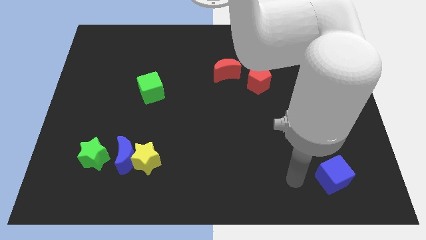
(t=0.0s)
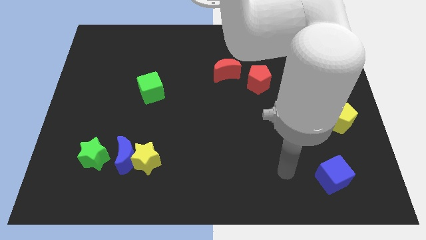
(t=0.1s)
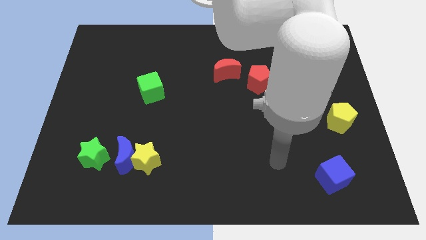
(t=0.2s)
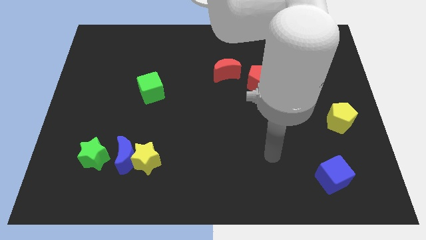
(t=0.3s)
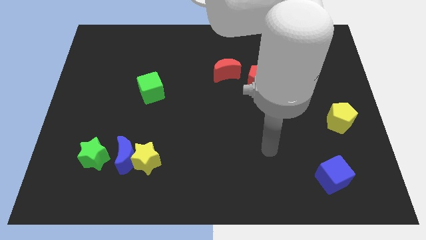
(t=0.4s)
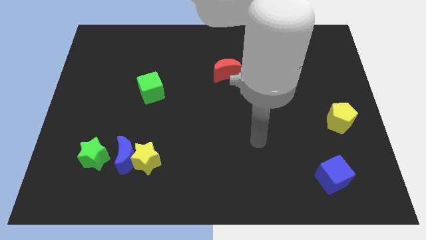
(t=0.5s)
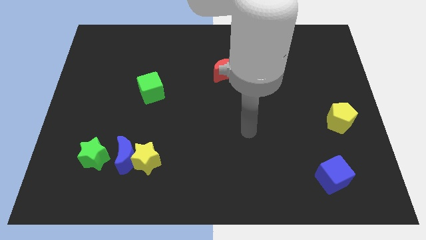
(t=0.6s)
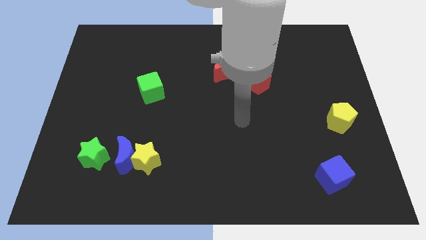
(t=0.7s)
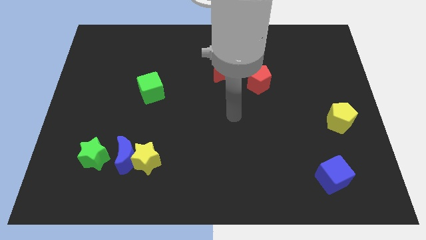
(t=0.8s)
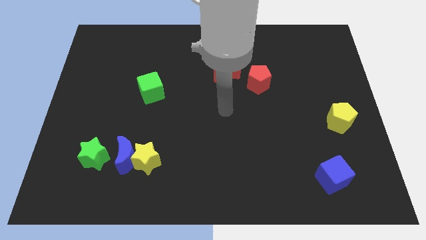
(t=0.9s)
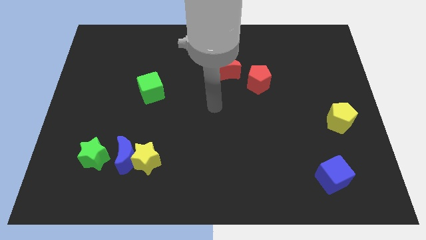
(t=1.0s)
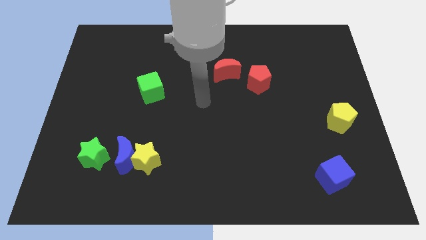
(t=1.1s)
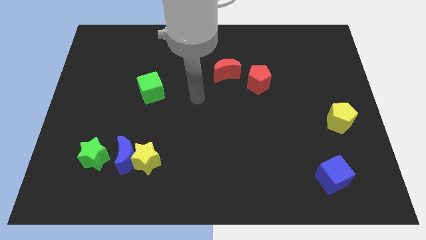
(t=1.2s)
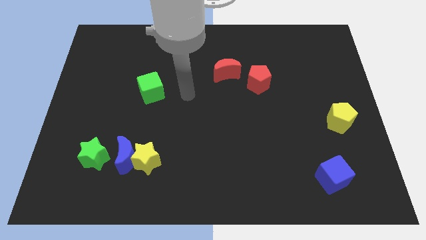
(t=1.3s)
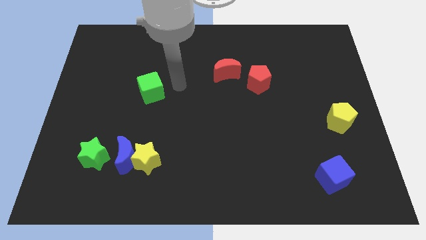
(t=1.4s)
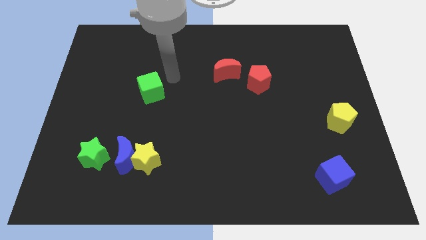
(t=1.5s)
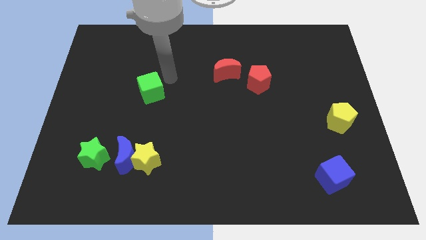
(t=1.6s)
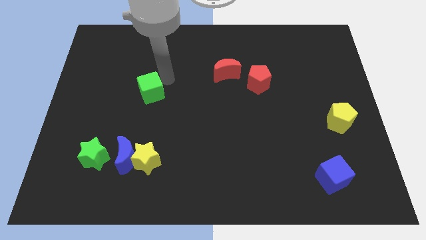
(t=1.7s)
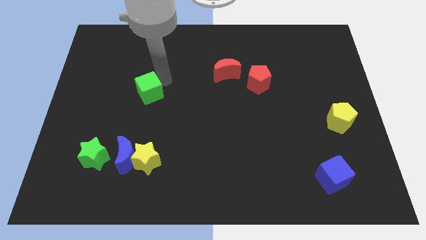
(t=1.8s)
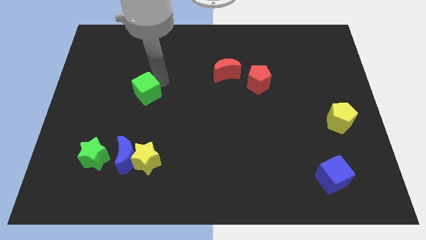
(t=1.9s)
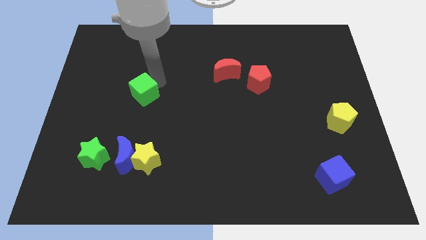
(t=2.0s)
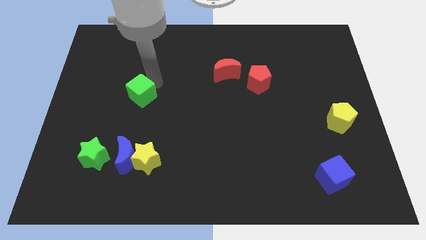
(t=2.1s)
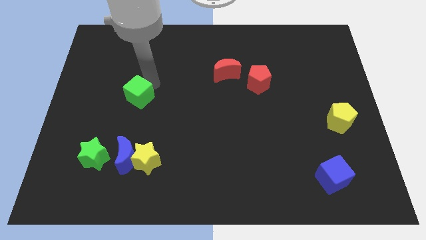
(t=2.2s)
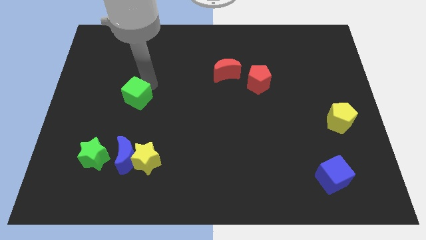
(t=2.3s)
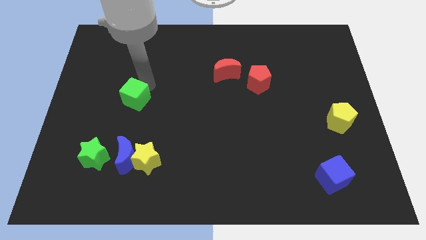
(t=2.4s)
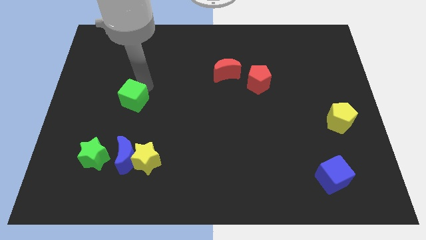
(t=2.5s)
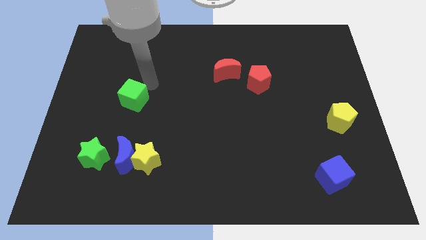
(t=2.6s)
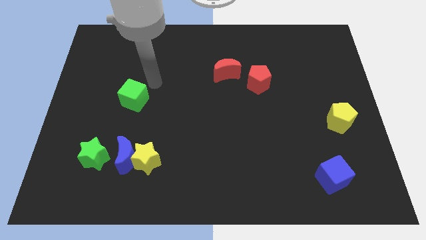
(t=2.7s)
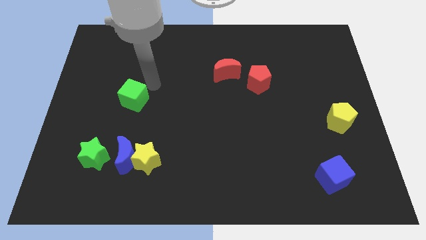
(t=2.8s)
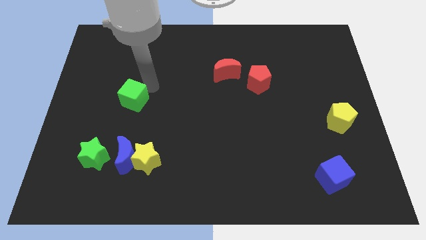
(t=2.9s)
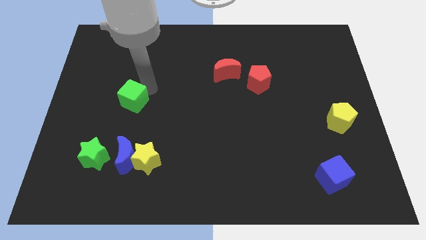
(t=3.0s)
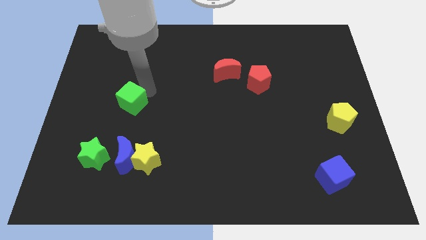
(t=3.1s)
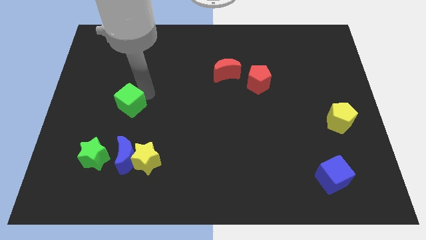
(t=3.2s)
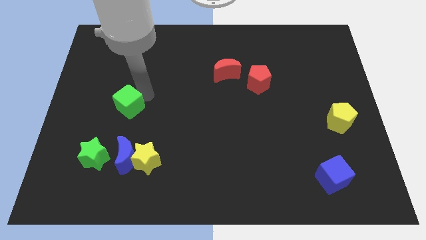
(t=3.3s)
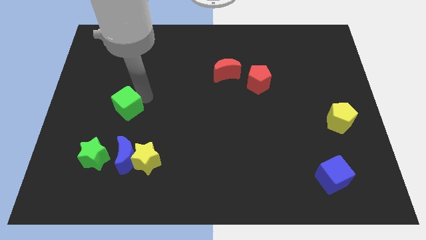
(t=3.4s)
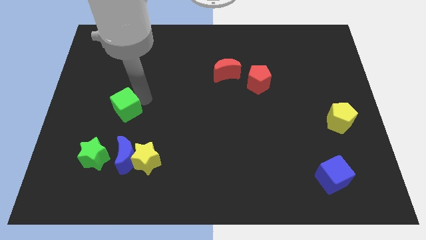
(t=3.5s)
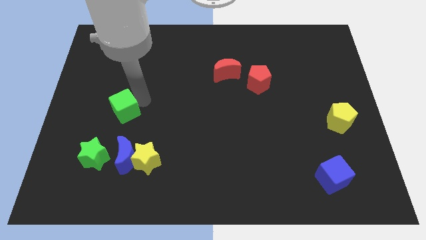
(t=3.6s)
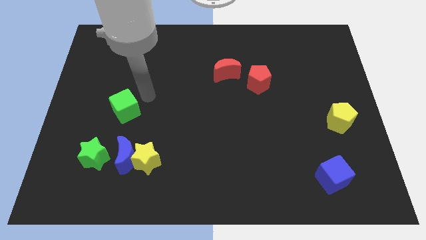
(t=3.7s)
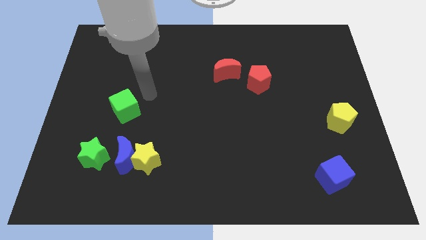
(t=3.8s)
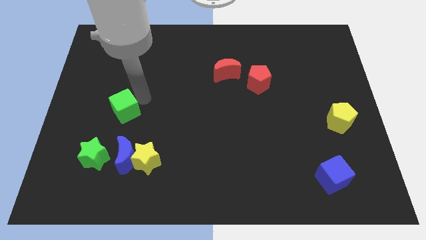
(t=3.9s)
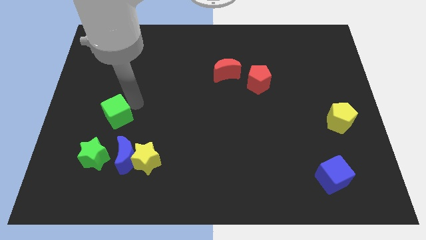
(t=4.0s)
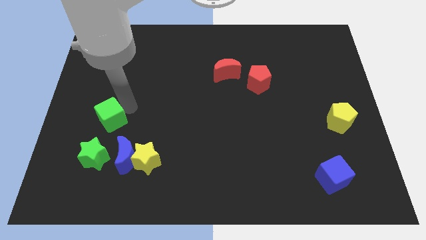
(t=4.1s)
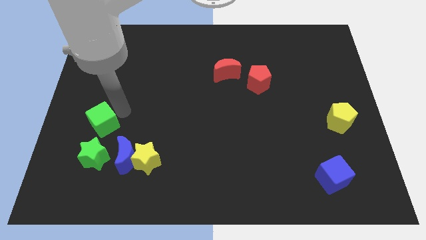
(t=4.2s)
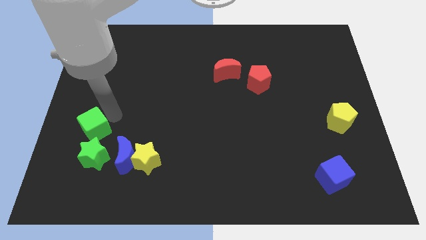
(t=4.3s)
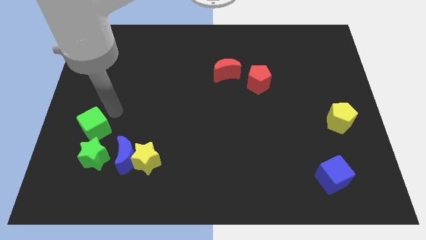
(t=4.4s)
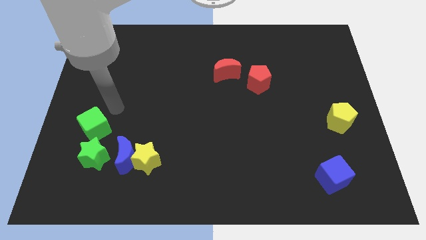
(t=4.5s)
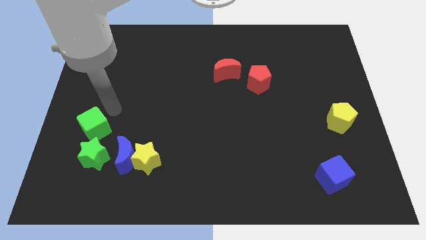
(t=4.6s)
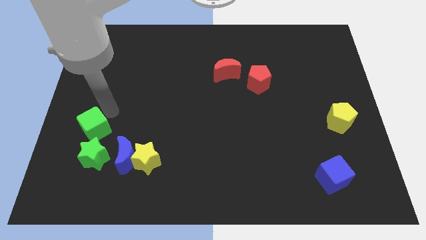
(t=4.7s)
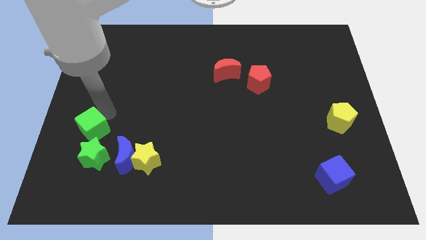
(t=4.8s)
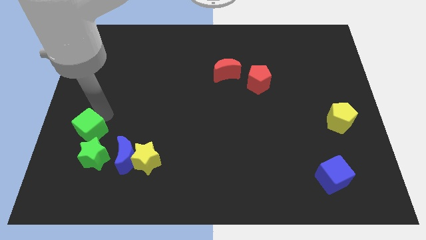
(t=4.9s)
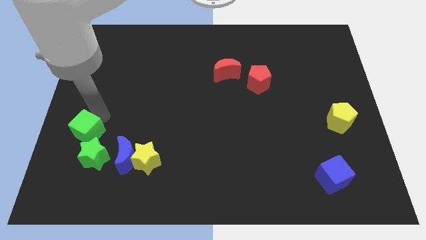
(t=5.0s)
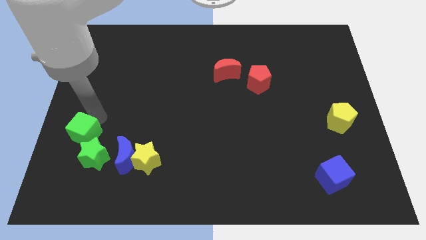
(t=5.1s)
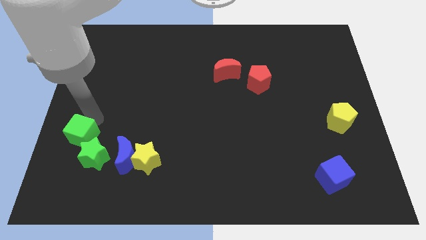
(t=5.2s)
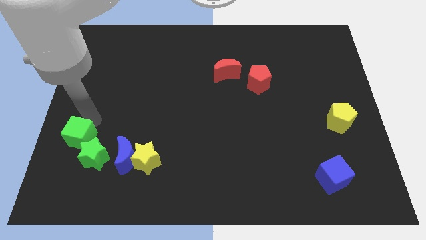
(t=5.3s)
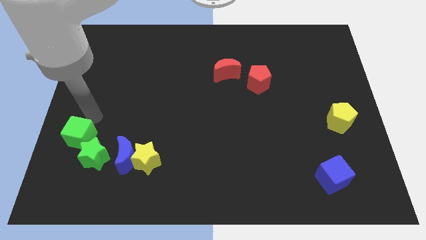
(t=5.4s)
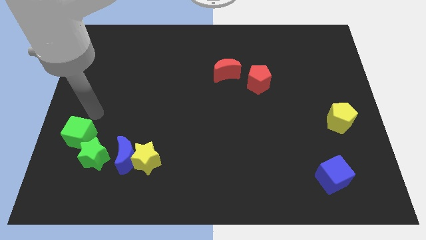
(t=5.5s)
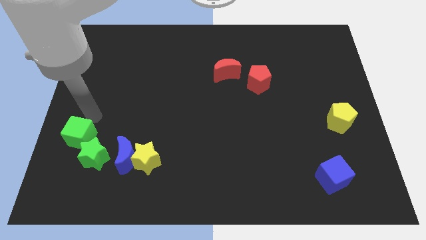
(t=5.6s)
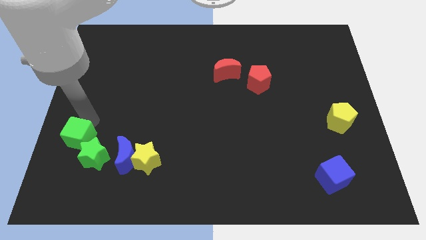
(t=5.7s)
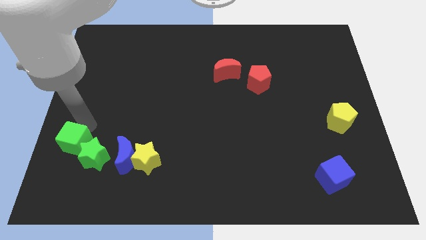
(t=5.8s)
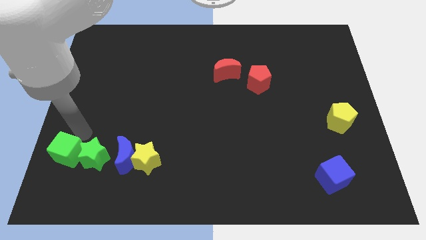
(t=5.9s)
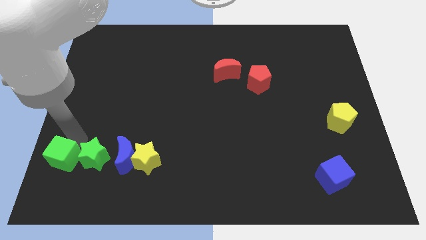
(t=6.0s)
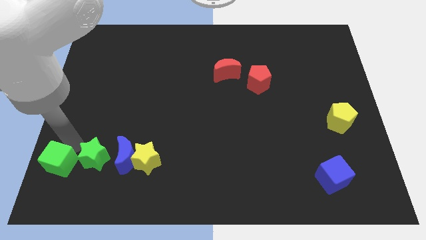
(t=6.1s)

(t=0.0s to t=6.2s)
push the green cube to the lower left corner

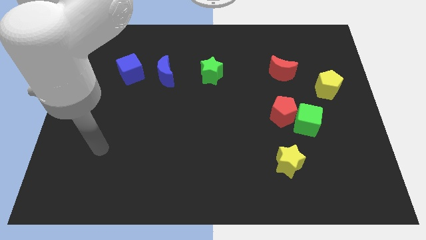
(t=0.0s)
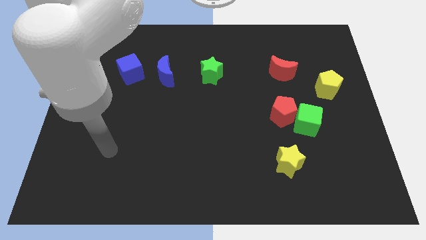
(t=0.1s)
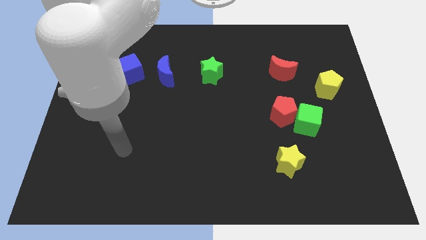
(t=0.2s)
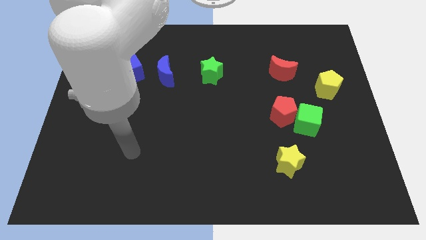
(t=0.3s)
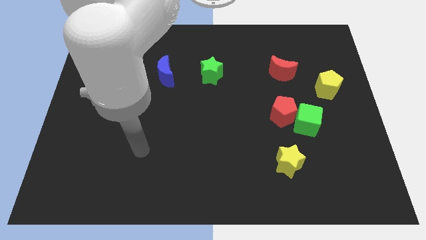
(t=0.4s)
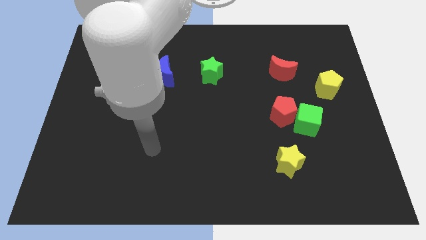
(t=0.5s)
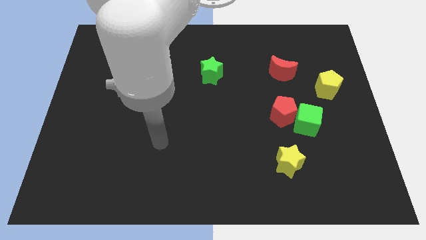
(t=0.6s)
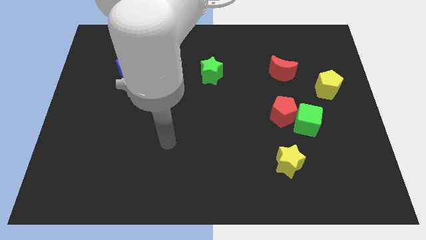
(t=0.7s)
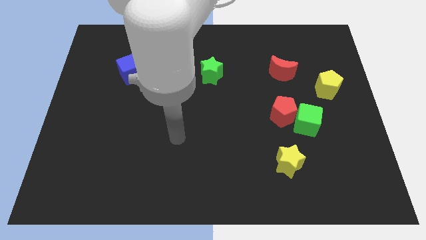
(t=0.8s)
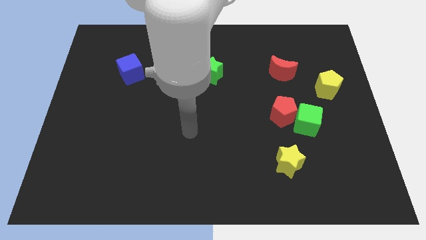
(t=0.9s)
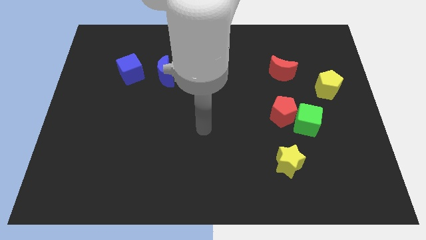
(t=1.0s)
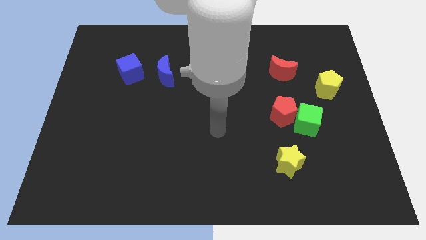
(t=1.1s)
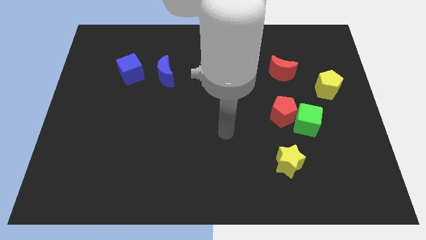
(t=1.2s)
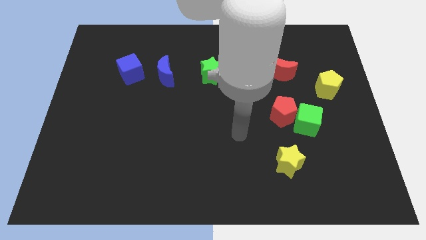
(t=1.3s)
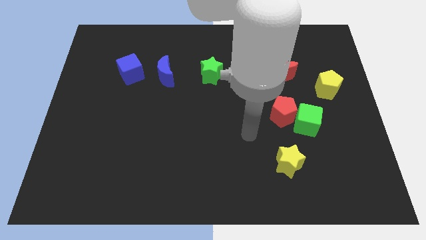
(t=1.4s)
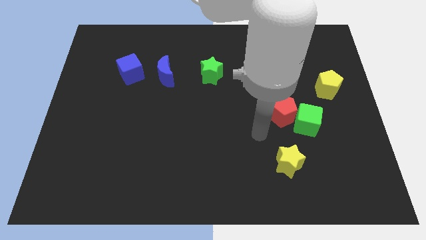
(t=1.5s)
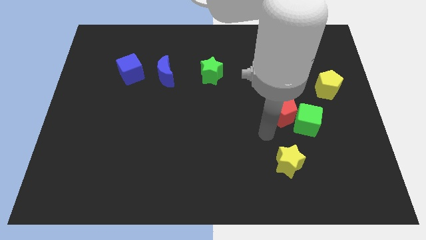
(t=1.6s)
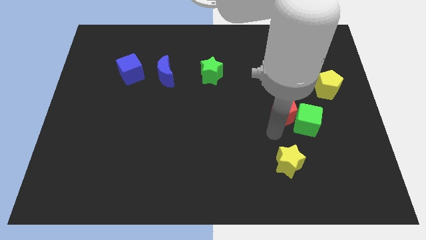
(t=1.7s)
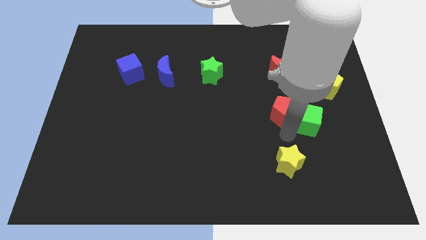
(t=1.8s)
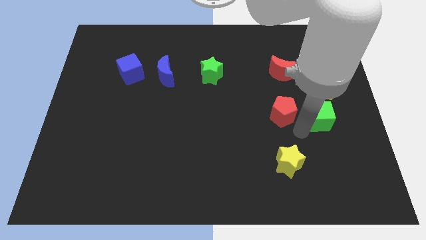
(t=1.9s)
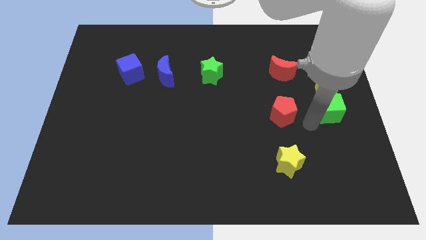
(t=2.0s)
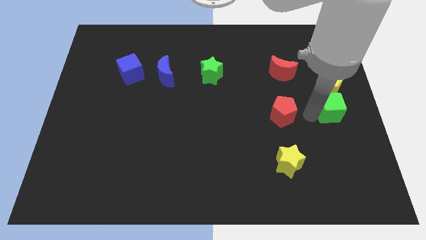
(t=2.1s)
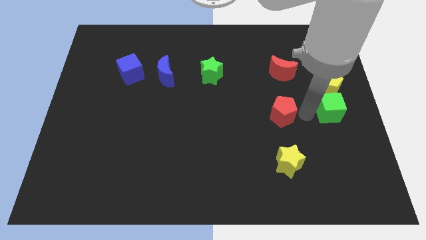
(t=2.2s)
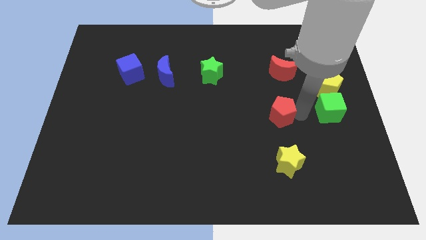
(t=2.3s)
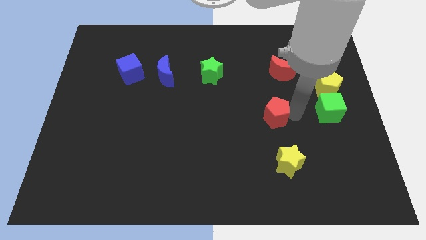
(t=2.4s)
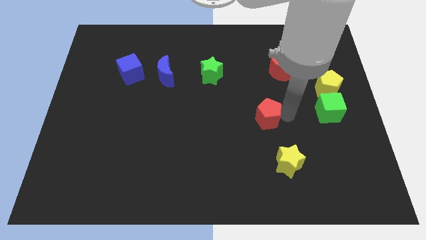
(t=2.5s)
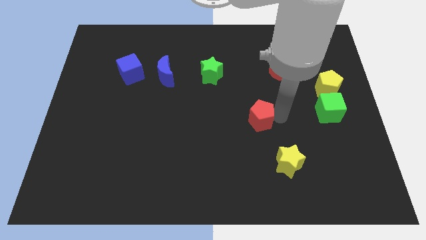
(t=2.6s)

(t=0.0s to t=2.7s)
slide the red pentagon to the center
